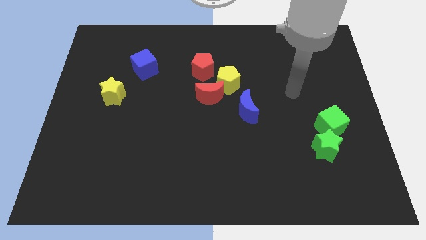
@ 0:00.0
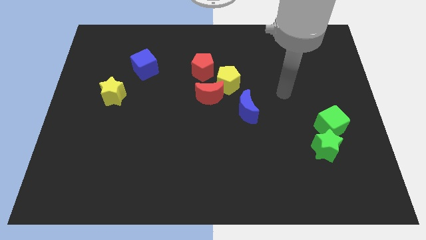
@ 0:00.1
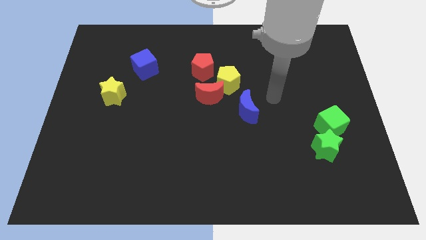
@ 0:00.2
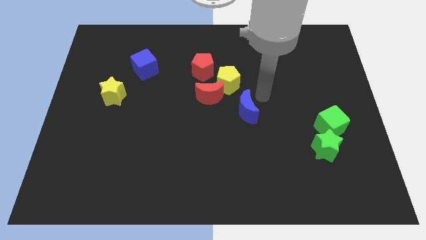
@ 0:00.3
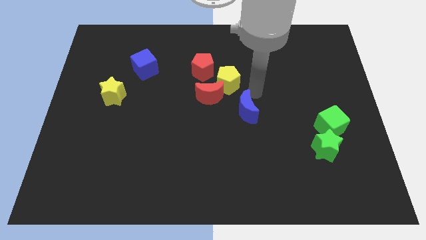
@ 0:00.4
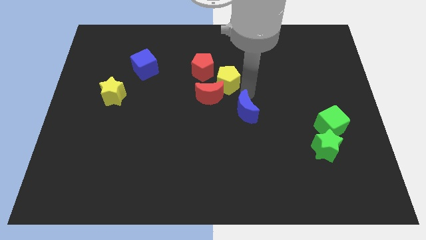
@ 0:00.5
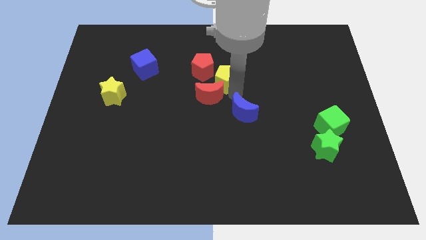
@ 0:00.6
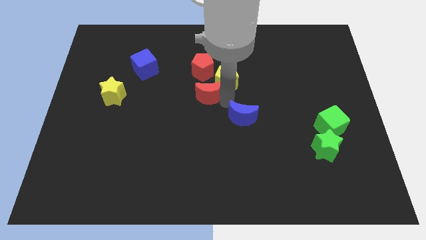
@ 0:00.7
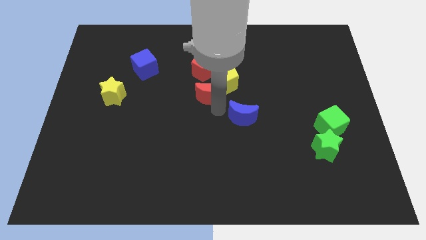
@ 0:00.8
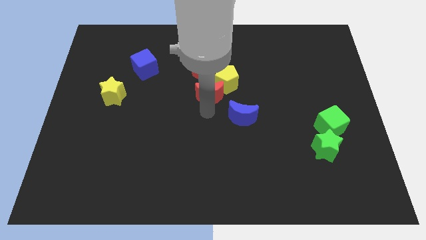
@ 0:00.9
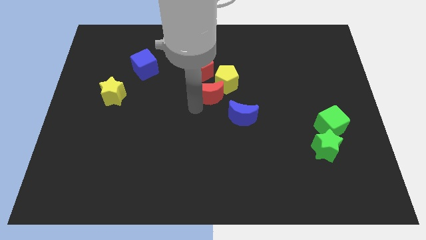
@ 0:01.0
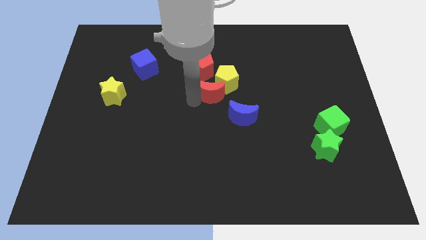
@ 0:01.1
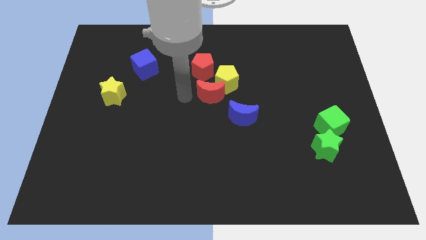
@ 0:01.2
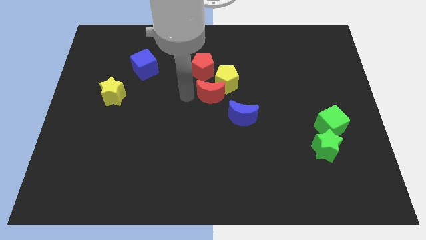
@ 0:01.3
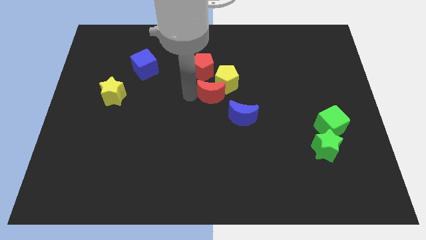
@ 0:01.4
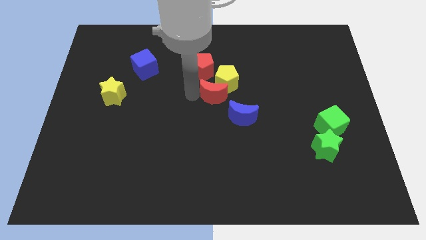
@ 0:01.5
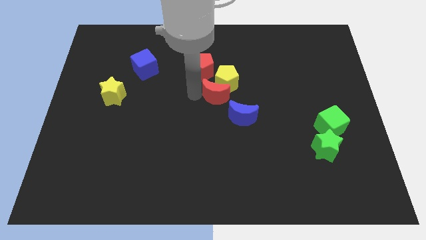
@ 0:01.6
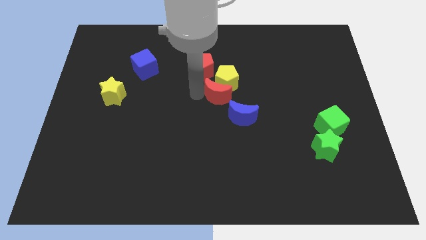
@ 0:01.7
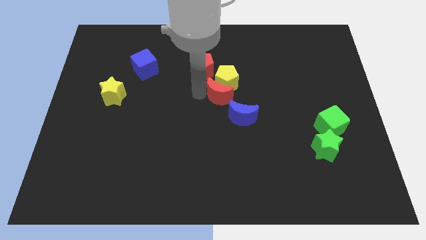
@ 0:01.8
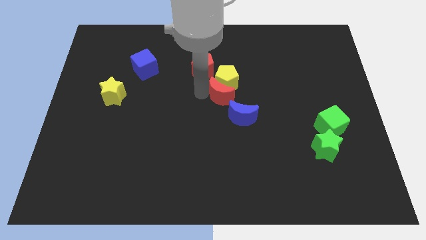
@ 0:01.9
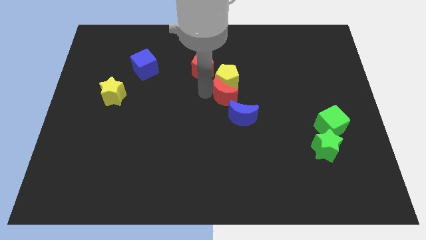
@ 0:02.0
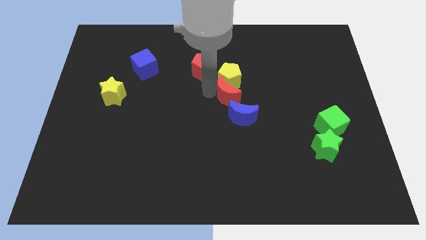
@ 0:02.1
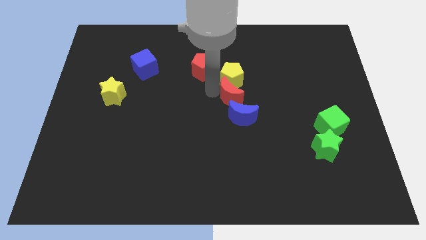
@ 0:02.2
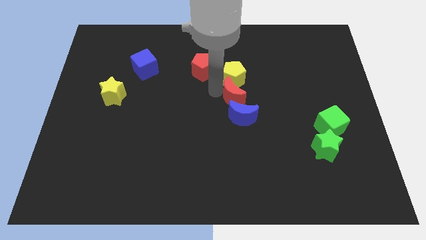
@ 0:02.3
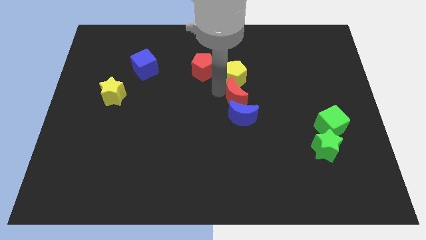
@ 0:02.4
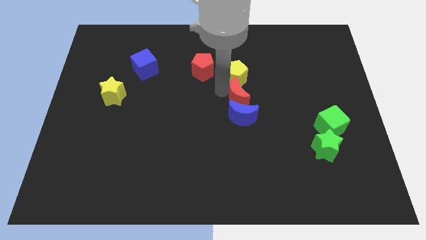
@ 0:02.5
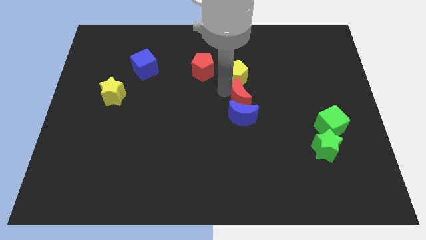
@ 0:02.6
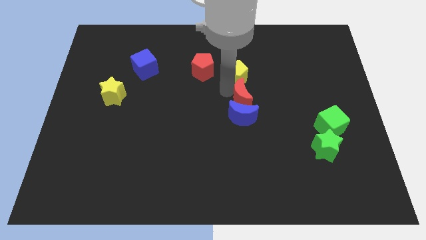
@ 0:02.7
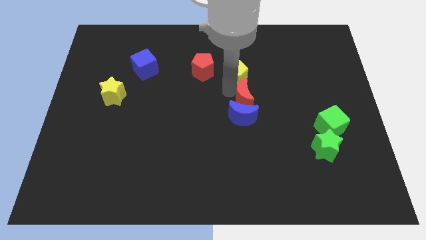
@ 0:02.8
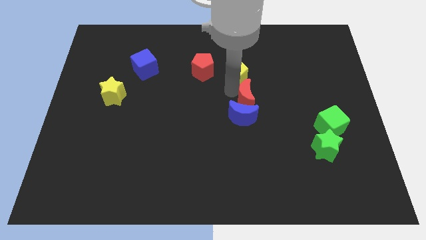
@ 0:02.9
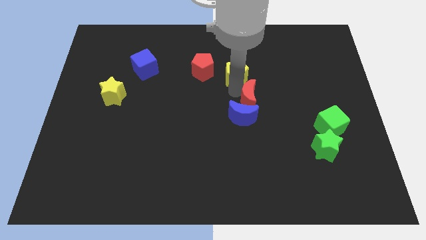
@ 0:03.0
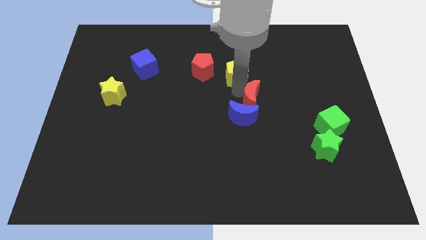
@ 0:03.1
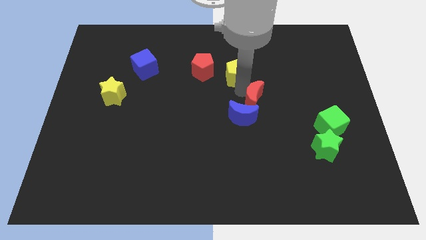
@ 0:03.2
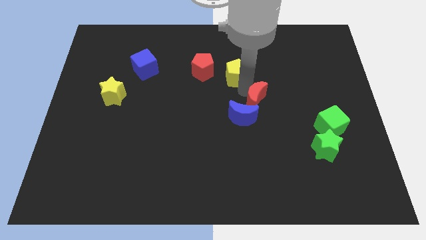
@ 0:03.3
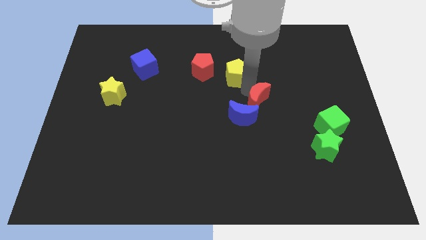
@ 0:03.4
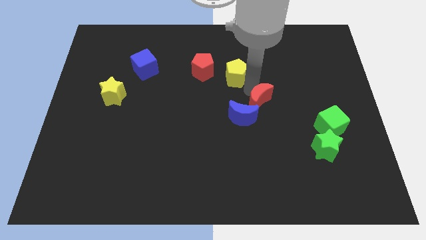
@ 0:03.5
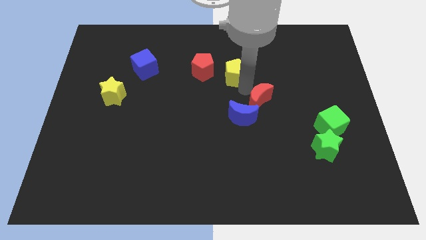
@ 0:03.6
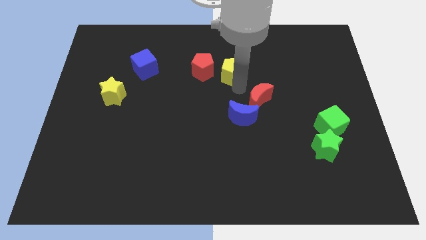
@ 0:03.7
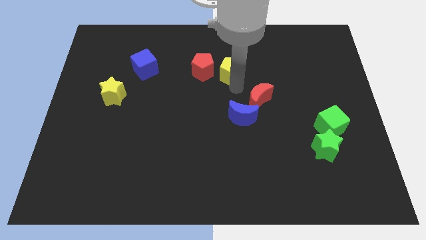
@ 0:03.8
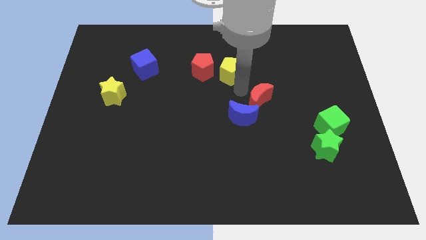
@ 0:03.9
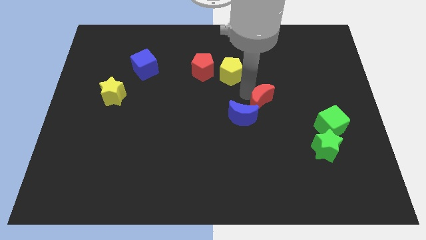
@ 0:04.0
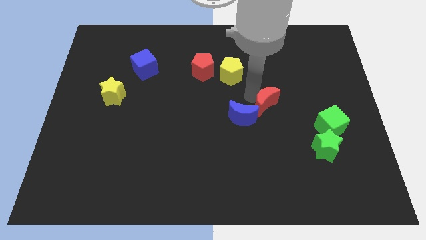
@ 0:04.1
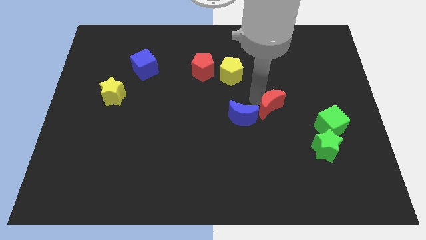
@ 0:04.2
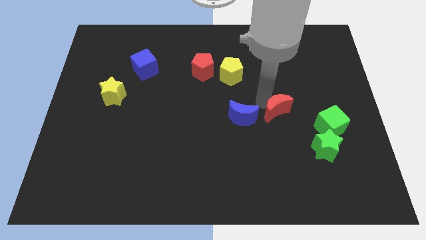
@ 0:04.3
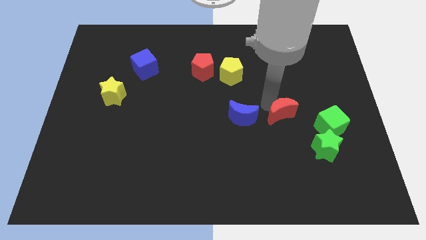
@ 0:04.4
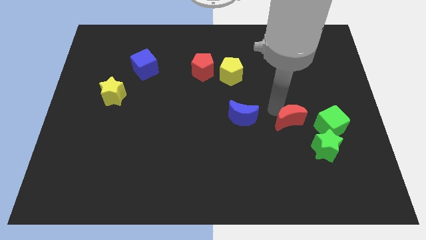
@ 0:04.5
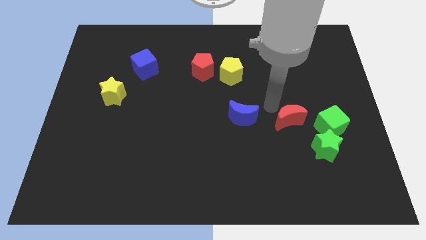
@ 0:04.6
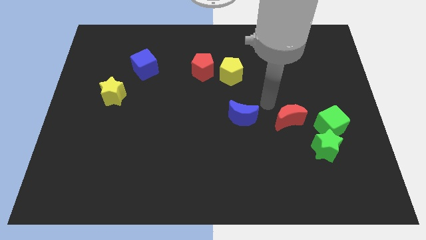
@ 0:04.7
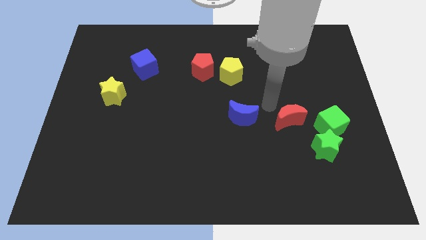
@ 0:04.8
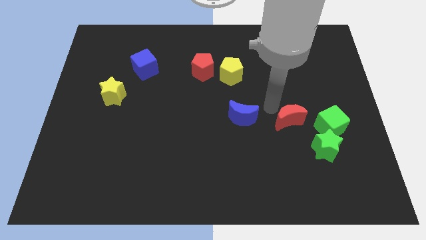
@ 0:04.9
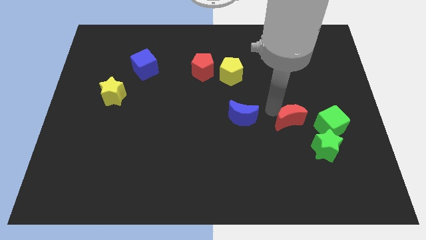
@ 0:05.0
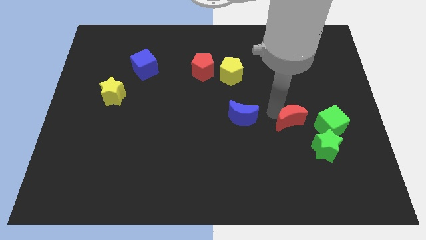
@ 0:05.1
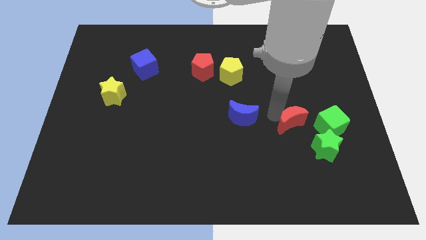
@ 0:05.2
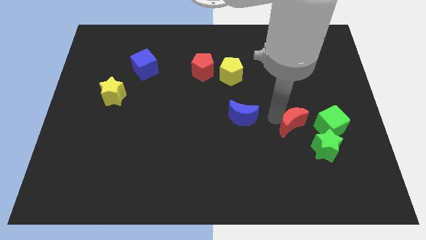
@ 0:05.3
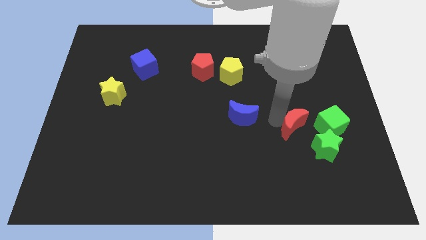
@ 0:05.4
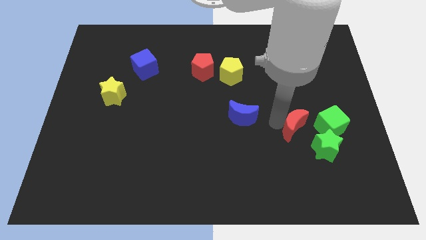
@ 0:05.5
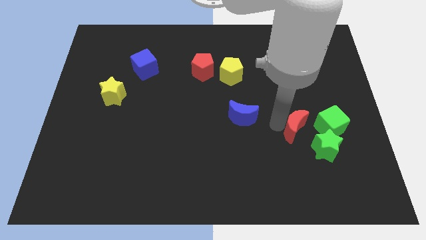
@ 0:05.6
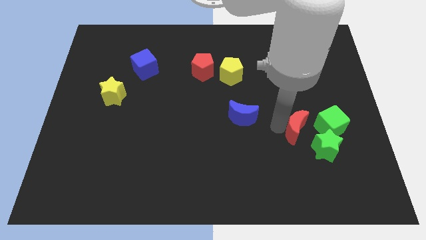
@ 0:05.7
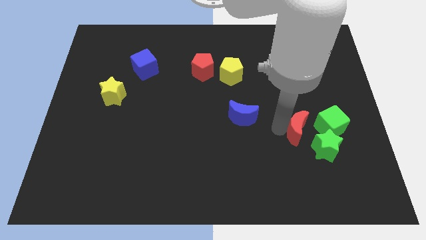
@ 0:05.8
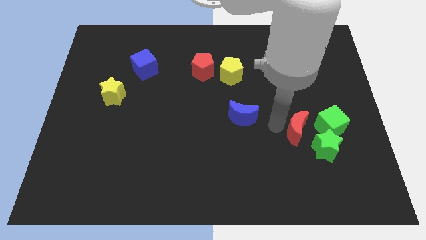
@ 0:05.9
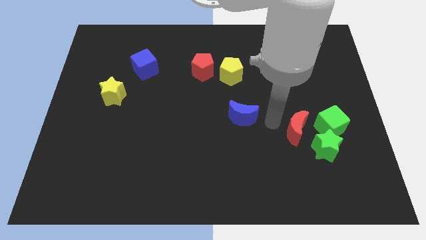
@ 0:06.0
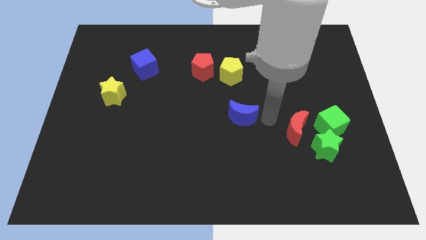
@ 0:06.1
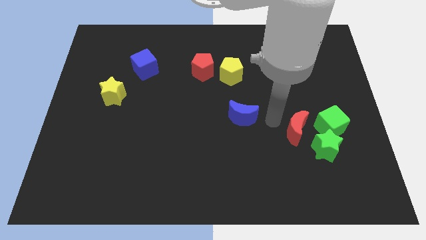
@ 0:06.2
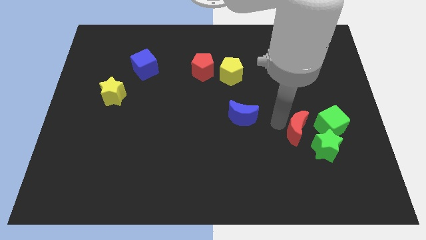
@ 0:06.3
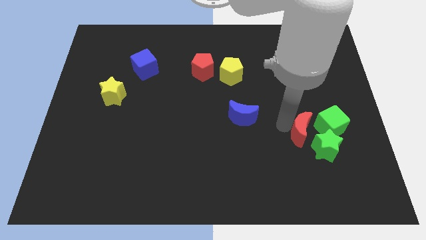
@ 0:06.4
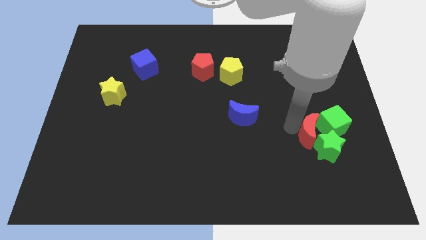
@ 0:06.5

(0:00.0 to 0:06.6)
push the red moon close to the green star
